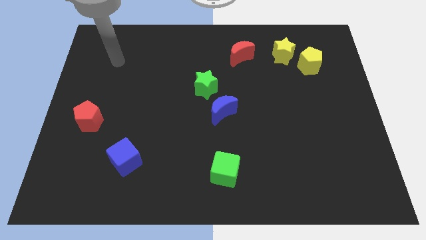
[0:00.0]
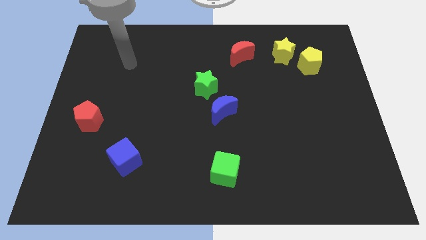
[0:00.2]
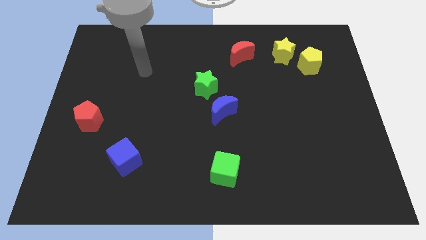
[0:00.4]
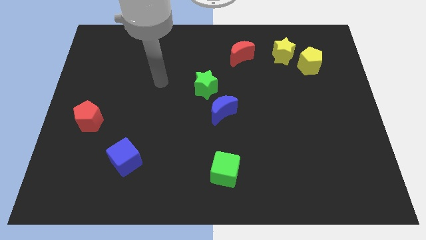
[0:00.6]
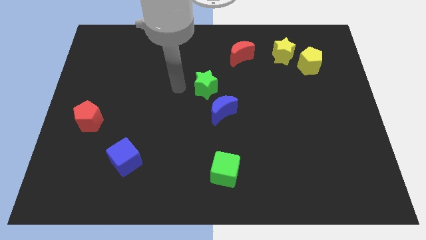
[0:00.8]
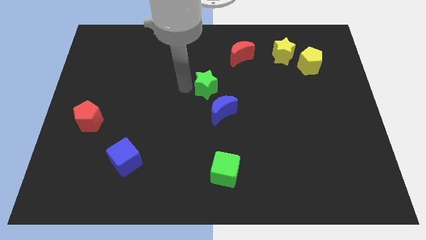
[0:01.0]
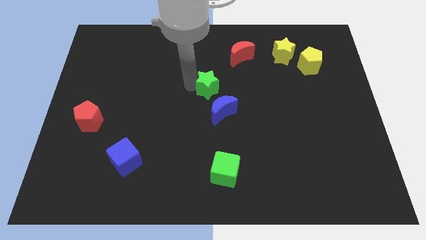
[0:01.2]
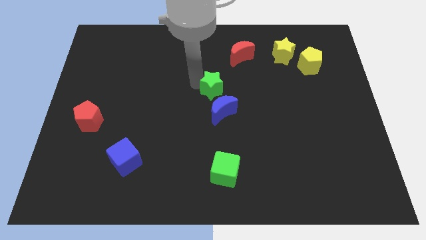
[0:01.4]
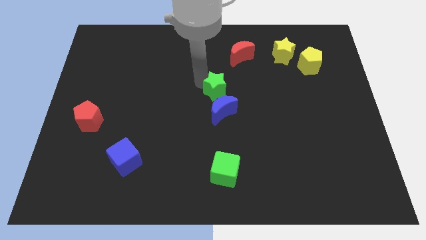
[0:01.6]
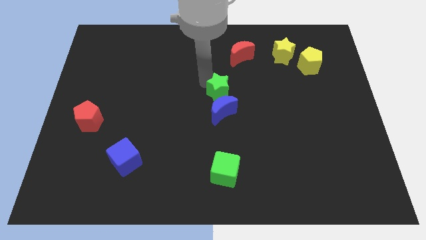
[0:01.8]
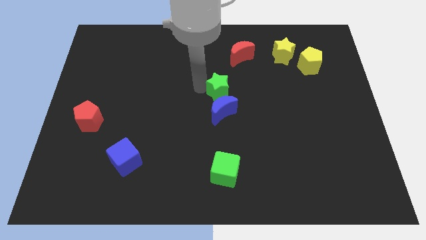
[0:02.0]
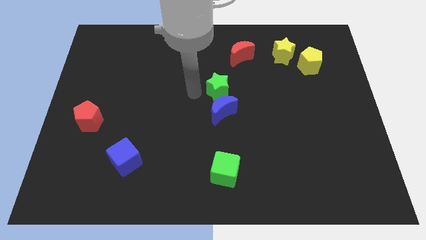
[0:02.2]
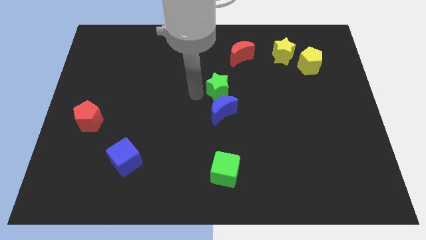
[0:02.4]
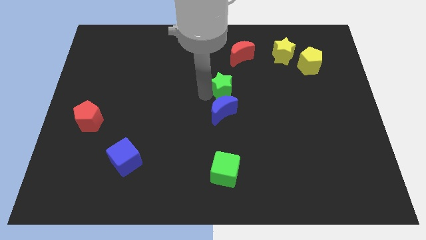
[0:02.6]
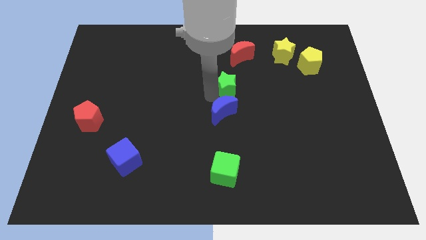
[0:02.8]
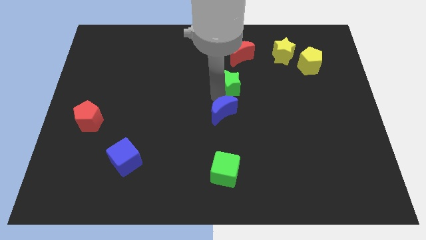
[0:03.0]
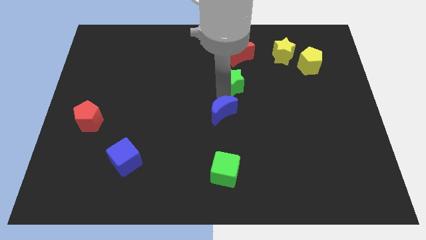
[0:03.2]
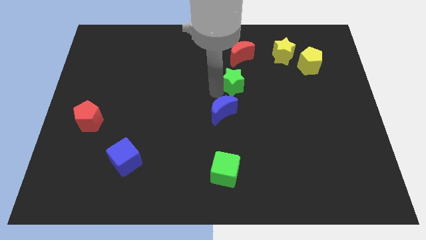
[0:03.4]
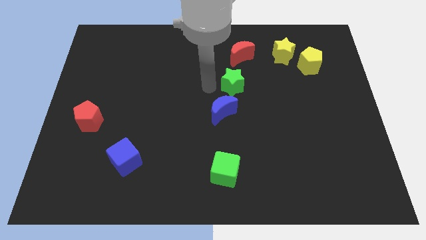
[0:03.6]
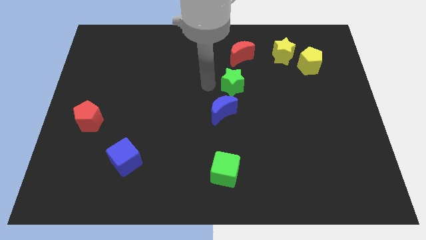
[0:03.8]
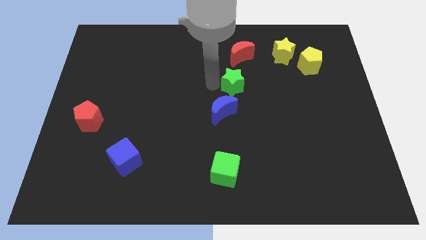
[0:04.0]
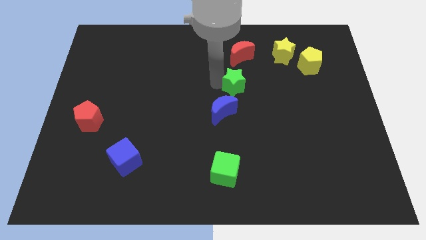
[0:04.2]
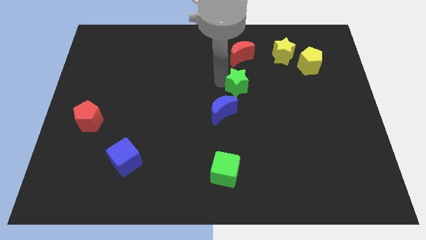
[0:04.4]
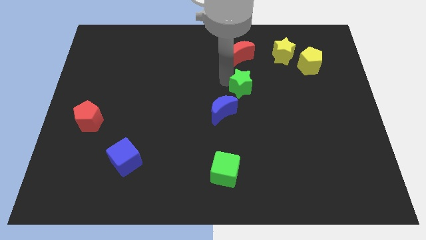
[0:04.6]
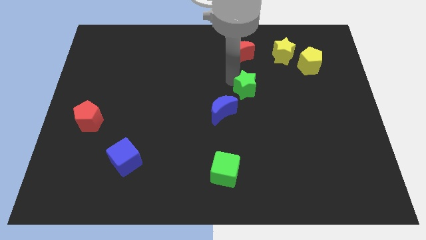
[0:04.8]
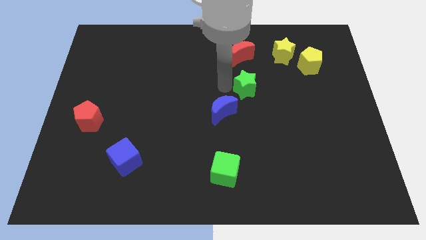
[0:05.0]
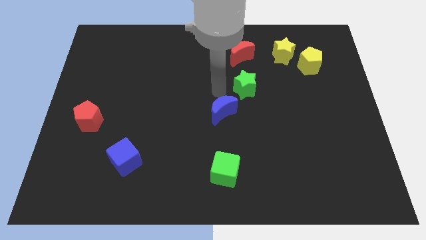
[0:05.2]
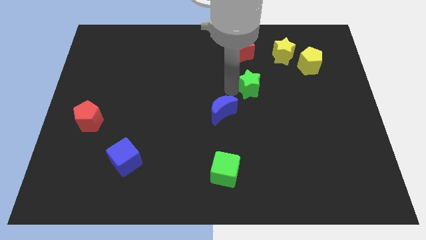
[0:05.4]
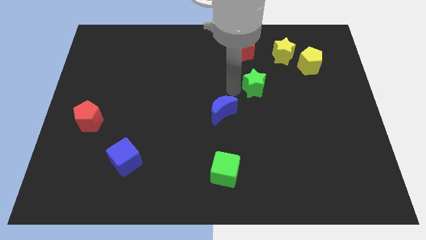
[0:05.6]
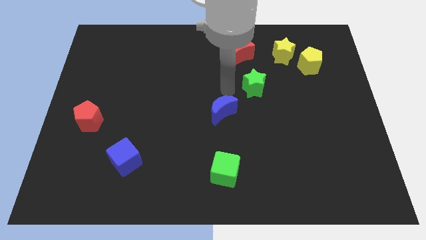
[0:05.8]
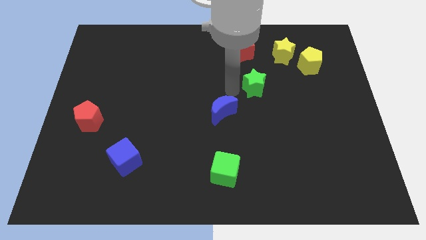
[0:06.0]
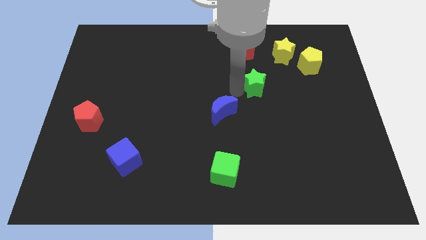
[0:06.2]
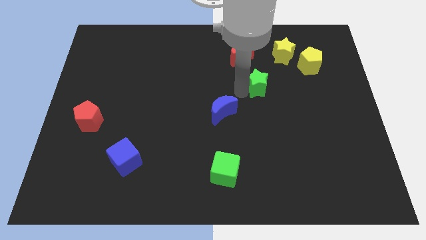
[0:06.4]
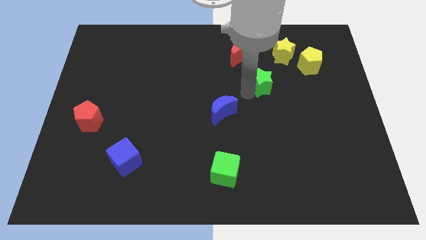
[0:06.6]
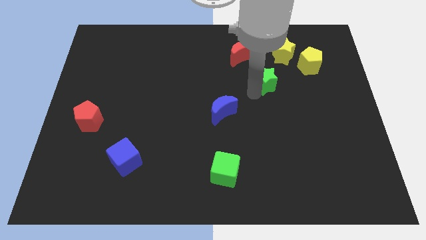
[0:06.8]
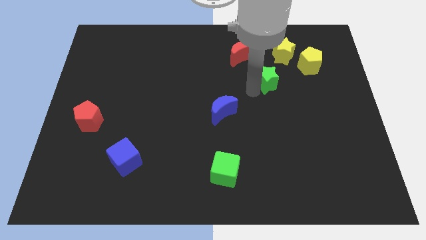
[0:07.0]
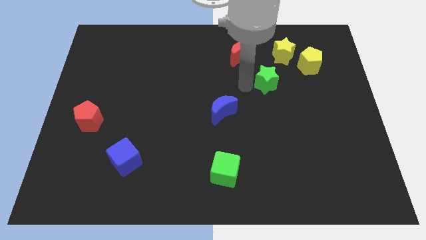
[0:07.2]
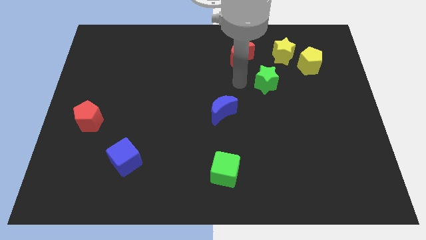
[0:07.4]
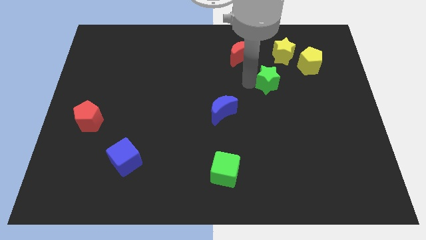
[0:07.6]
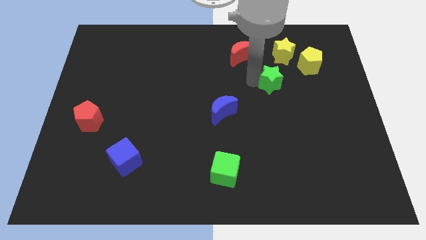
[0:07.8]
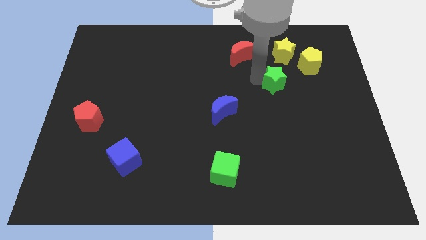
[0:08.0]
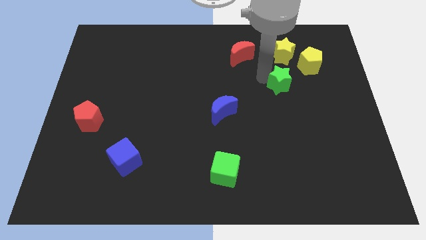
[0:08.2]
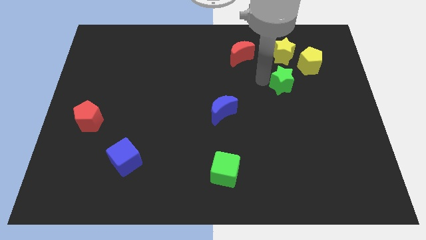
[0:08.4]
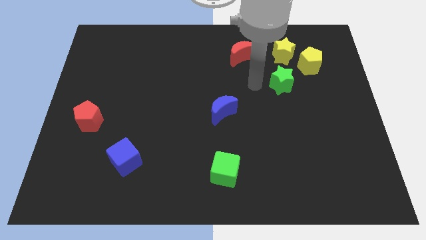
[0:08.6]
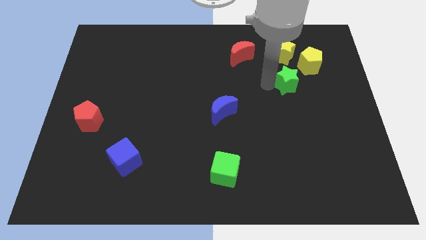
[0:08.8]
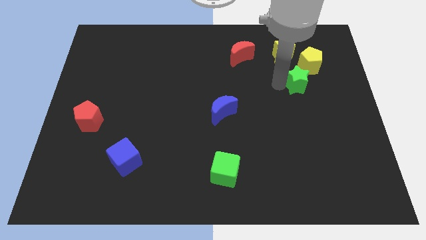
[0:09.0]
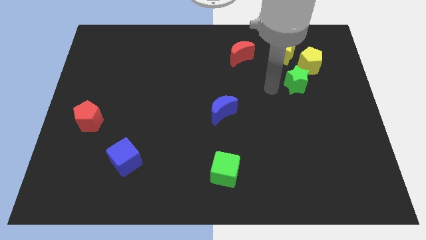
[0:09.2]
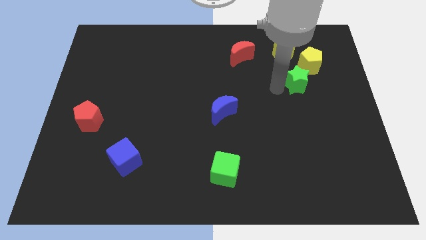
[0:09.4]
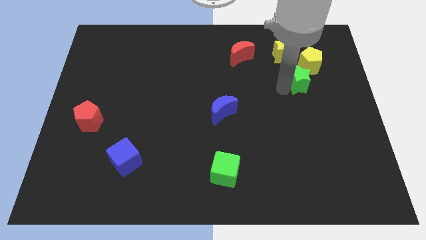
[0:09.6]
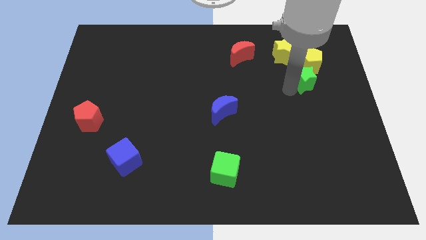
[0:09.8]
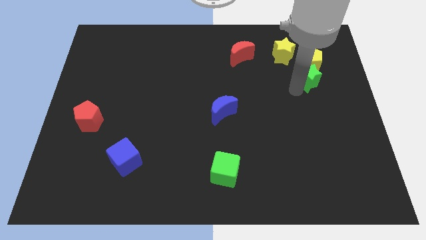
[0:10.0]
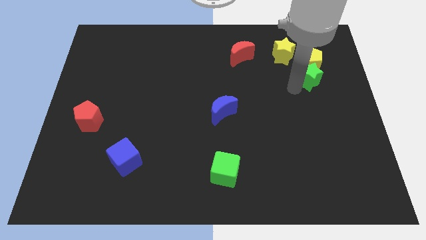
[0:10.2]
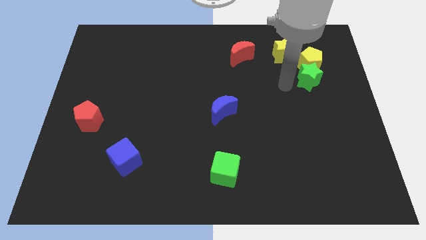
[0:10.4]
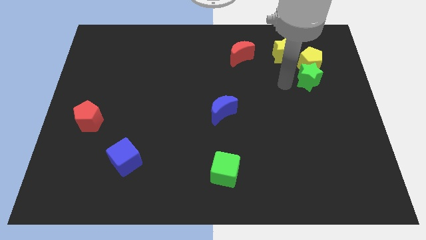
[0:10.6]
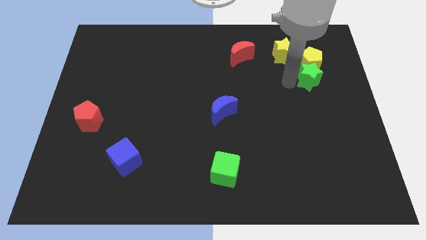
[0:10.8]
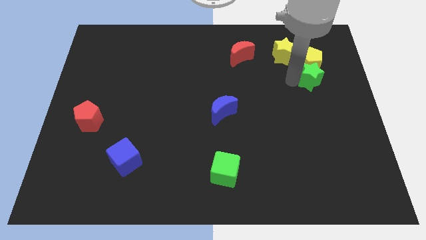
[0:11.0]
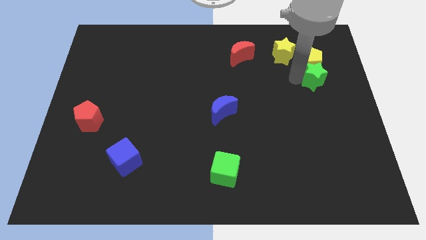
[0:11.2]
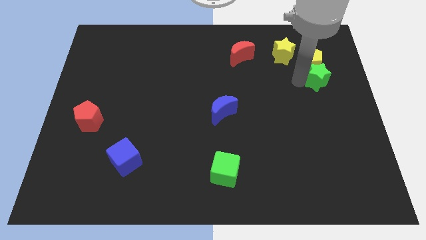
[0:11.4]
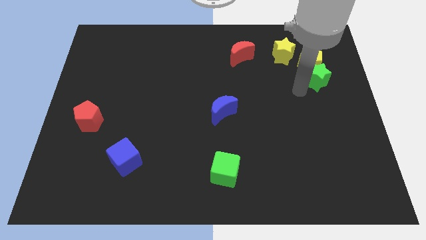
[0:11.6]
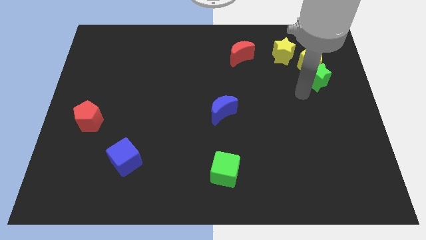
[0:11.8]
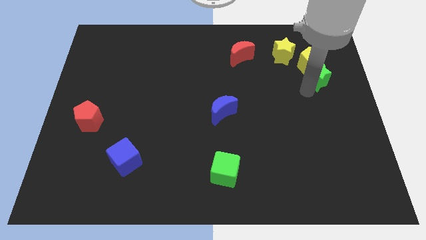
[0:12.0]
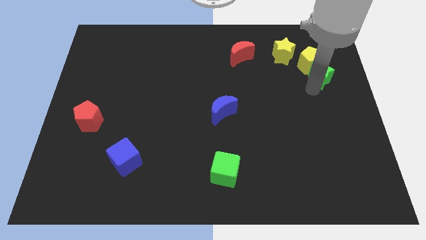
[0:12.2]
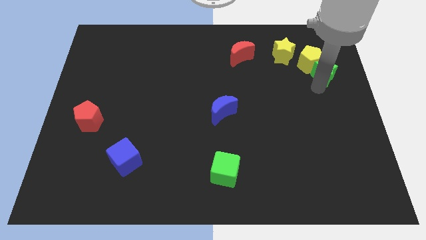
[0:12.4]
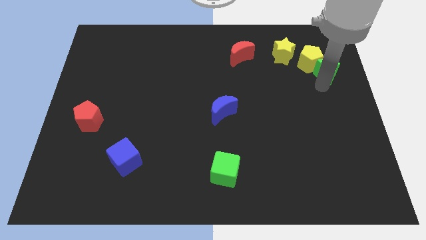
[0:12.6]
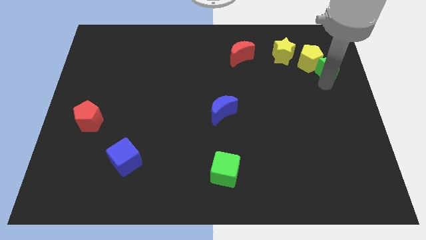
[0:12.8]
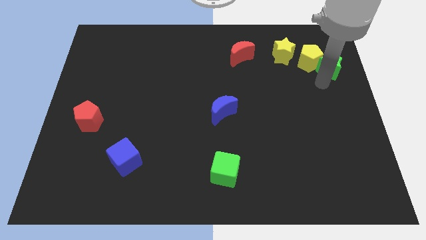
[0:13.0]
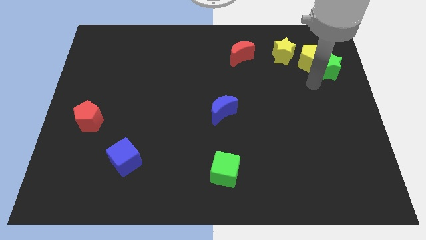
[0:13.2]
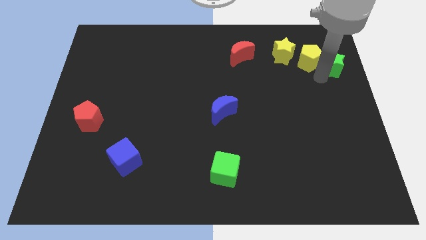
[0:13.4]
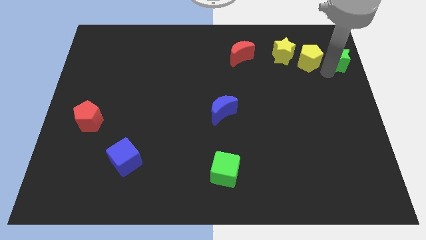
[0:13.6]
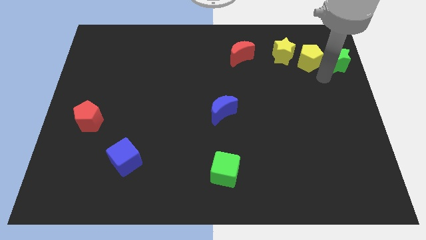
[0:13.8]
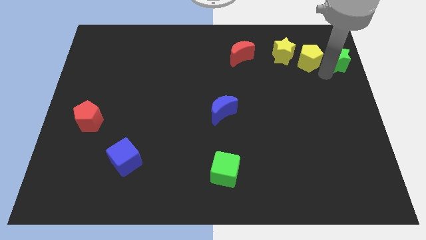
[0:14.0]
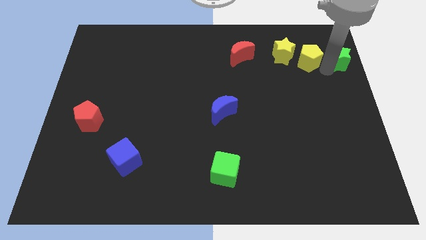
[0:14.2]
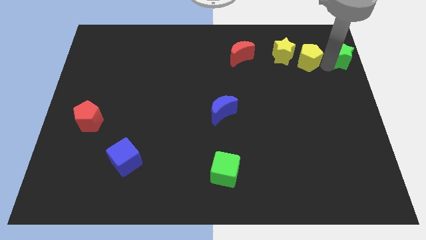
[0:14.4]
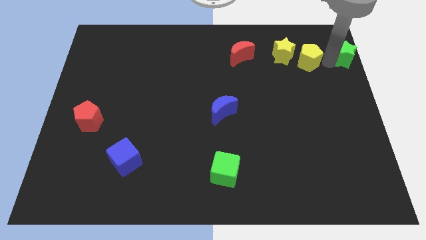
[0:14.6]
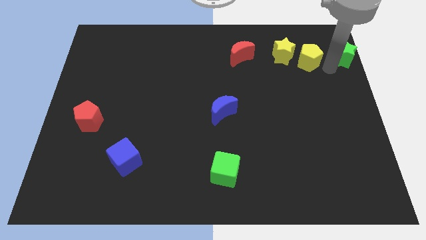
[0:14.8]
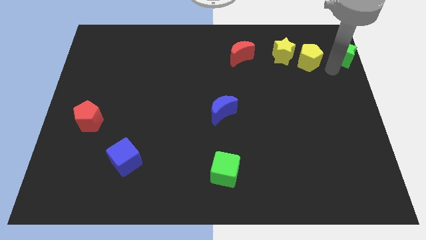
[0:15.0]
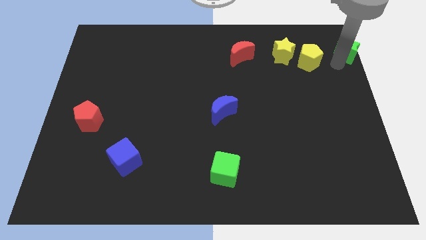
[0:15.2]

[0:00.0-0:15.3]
put the green star to the top right of the board
